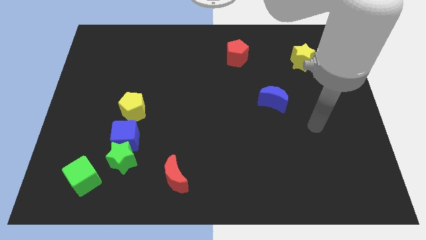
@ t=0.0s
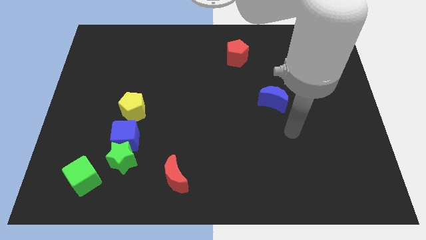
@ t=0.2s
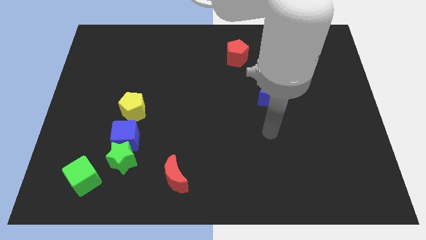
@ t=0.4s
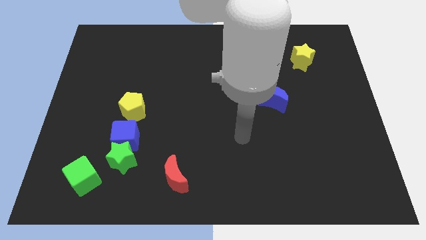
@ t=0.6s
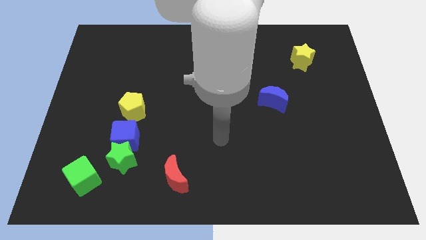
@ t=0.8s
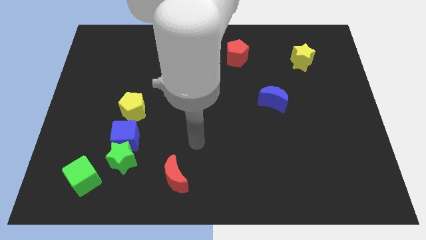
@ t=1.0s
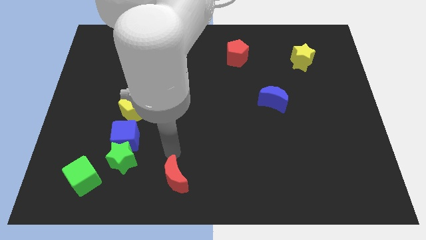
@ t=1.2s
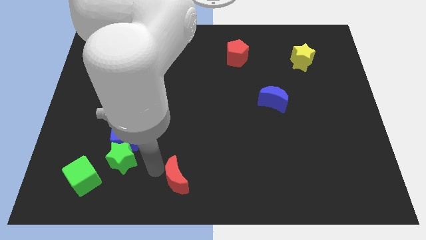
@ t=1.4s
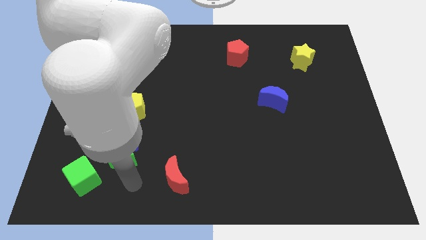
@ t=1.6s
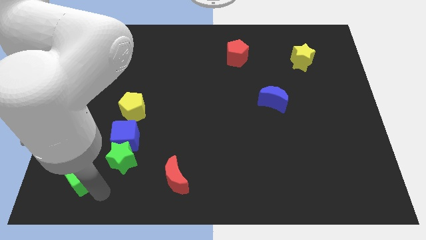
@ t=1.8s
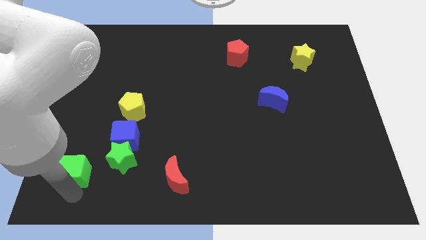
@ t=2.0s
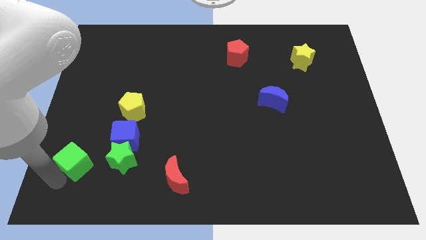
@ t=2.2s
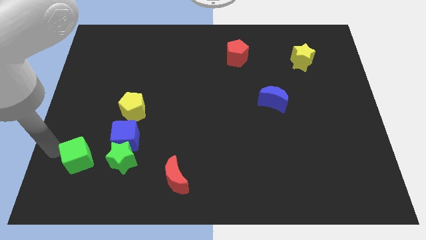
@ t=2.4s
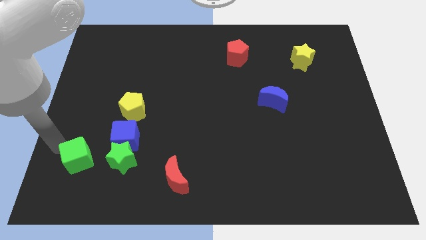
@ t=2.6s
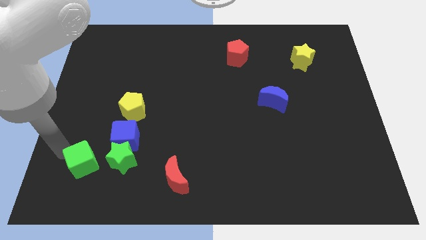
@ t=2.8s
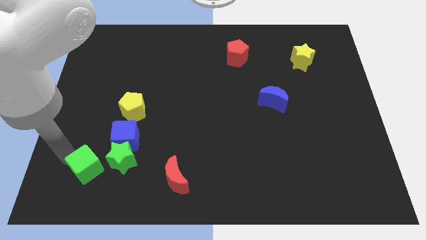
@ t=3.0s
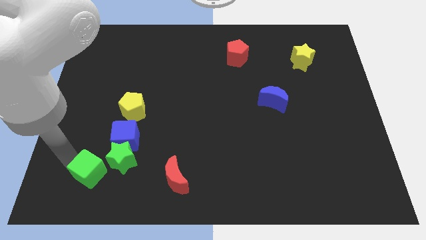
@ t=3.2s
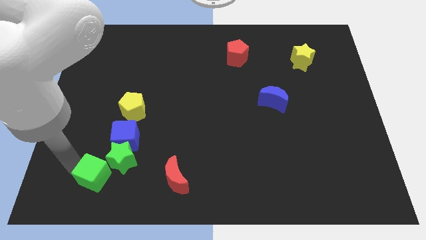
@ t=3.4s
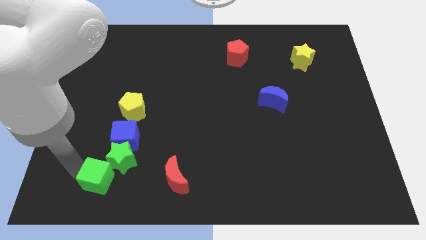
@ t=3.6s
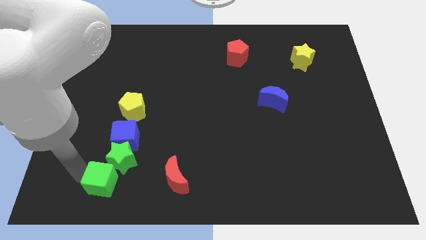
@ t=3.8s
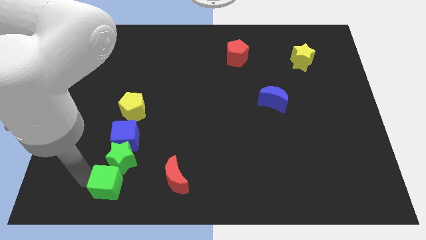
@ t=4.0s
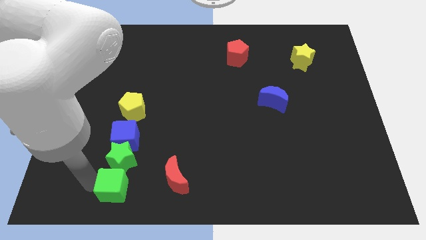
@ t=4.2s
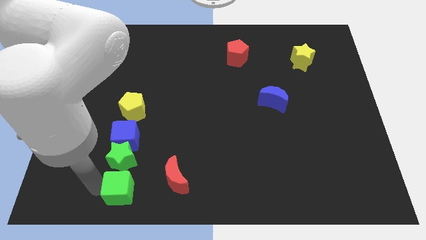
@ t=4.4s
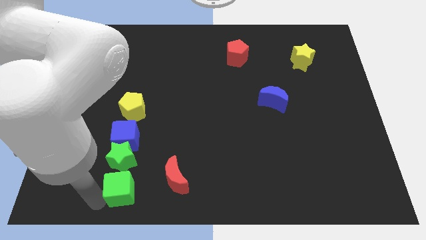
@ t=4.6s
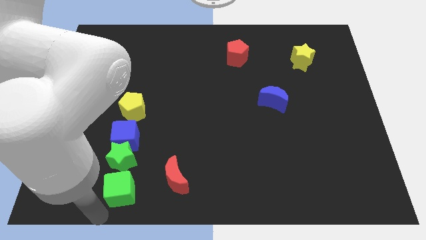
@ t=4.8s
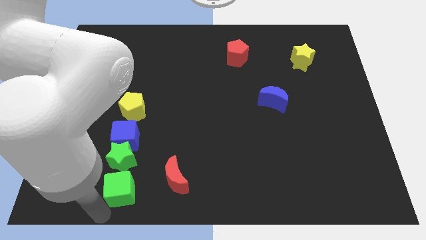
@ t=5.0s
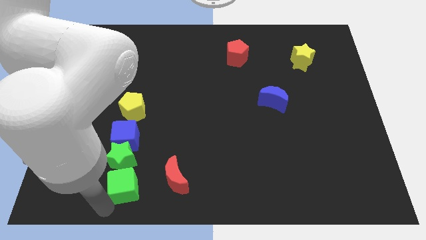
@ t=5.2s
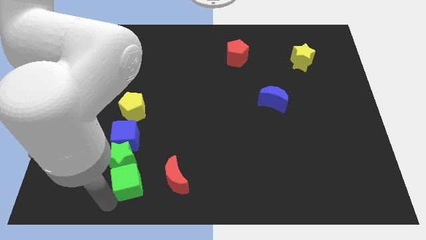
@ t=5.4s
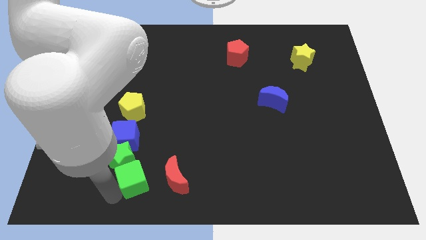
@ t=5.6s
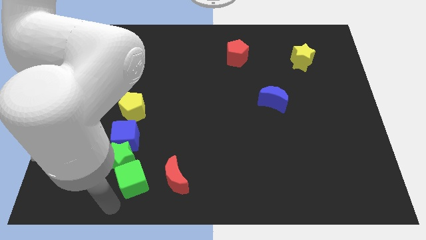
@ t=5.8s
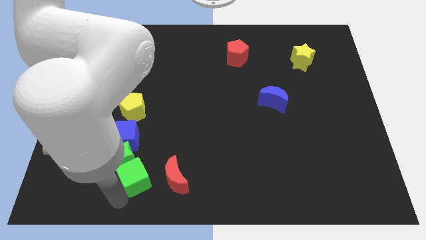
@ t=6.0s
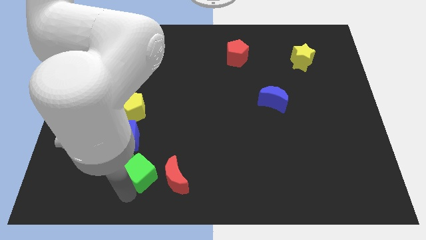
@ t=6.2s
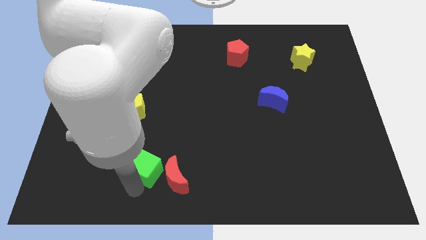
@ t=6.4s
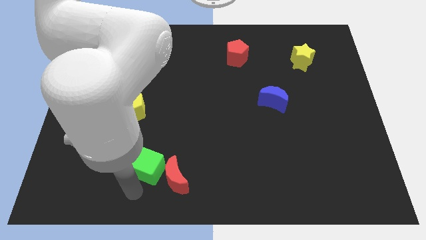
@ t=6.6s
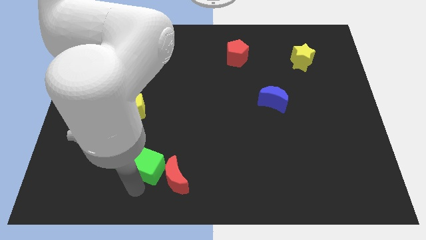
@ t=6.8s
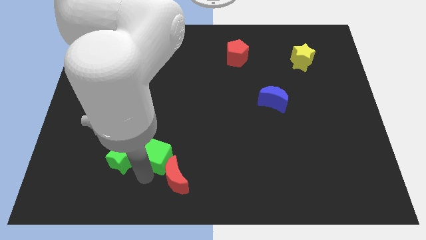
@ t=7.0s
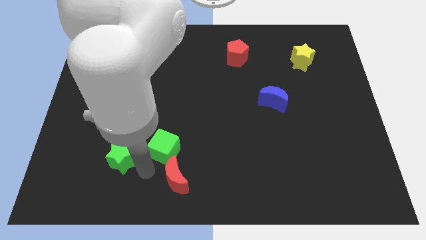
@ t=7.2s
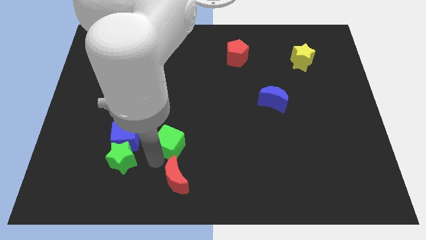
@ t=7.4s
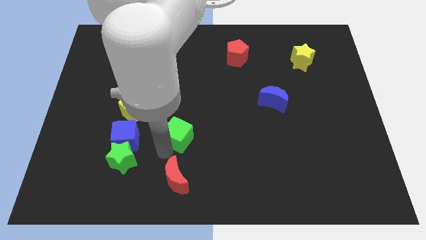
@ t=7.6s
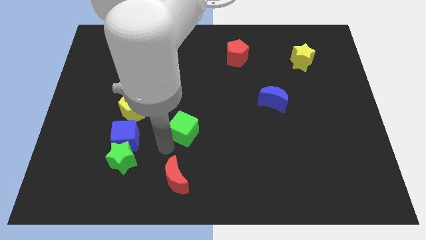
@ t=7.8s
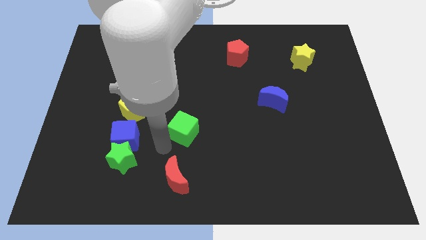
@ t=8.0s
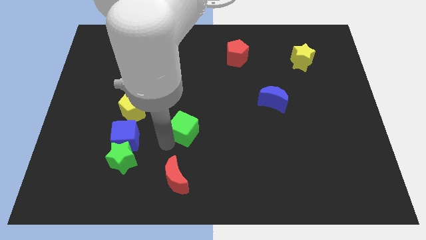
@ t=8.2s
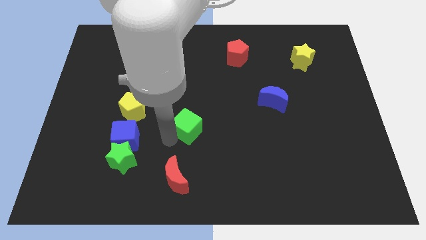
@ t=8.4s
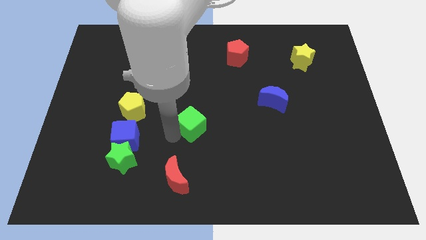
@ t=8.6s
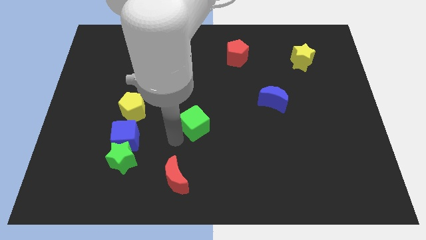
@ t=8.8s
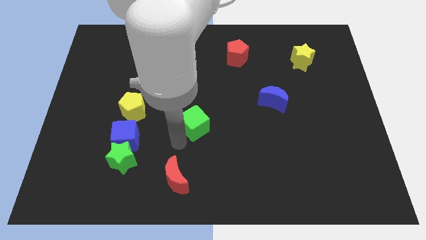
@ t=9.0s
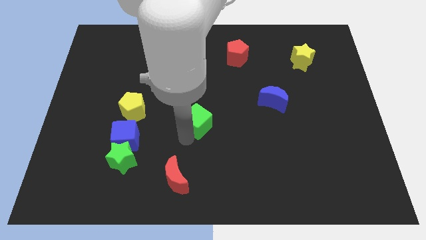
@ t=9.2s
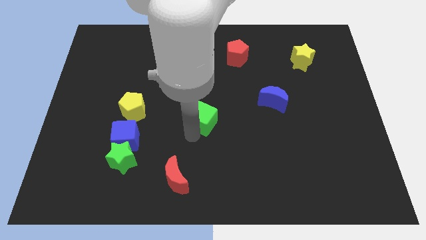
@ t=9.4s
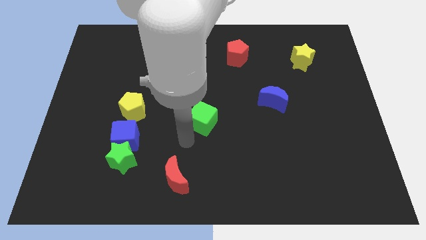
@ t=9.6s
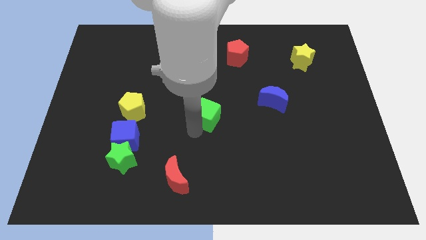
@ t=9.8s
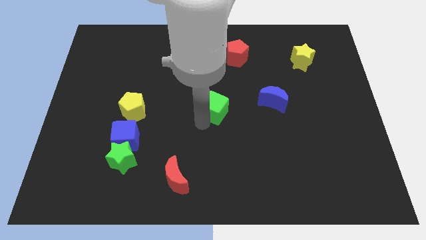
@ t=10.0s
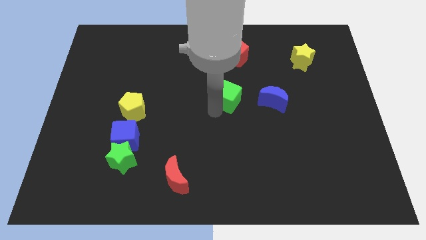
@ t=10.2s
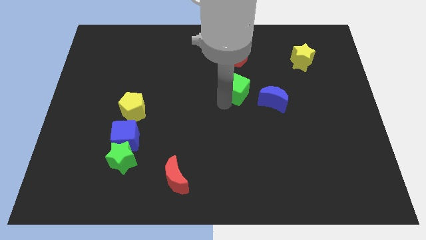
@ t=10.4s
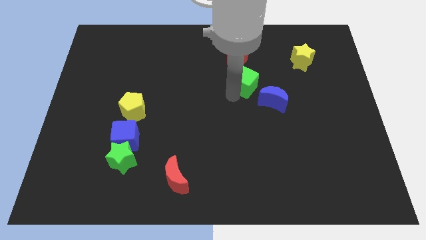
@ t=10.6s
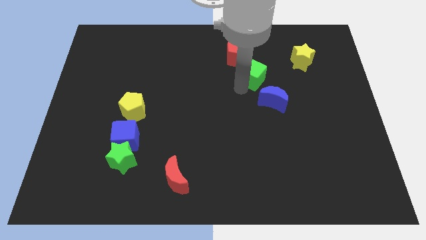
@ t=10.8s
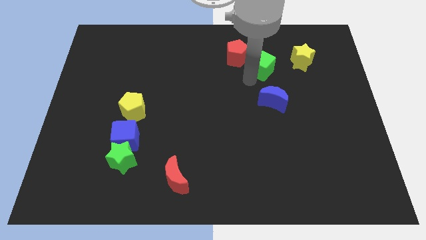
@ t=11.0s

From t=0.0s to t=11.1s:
push the green cube to the right of the red pentagon

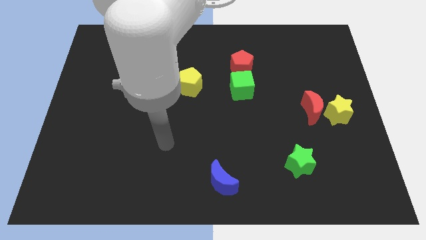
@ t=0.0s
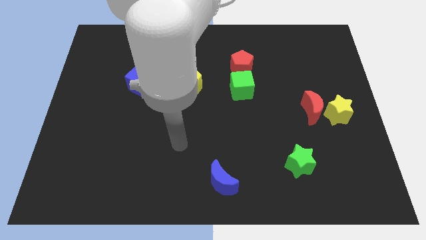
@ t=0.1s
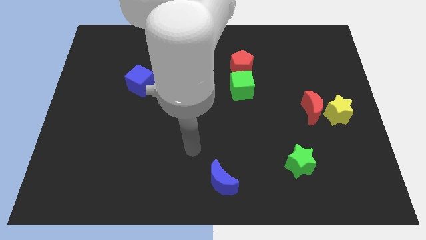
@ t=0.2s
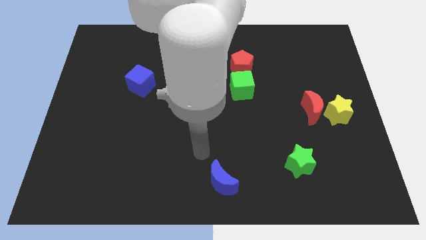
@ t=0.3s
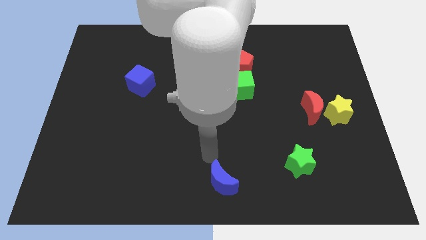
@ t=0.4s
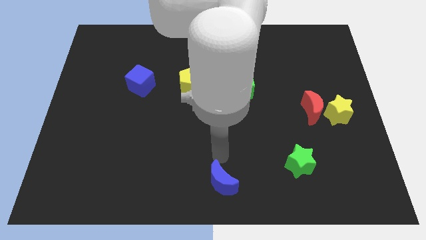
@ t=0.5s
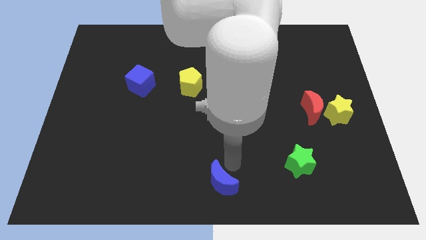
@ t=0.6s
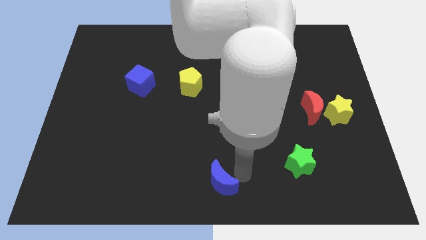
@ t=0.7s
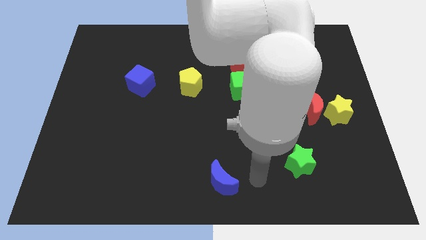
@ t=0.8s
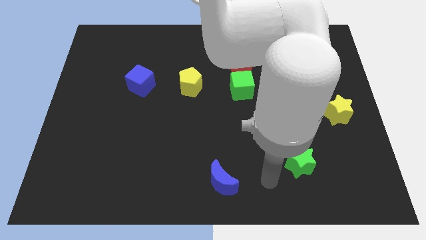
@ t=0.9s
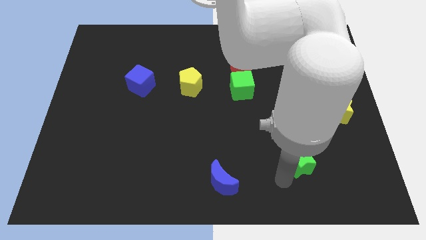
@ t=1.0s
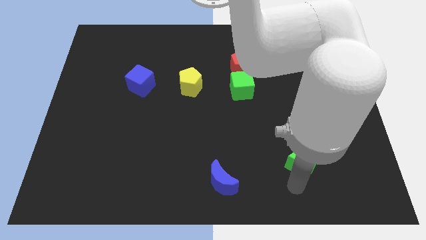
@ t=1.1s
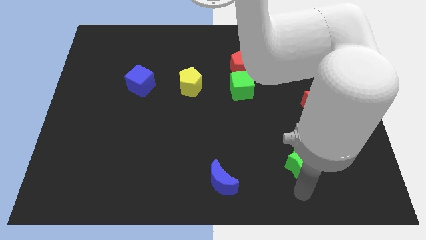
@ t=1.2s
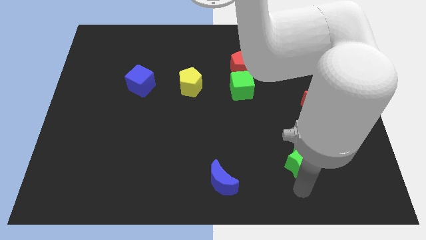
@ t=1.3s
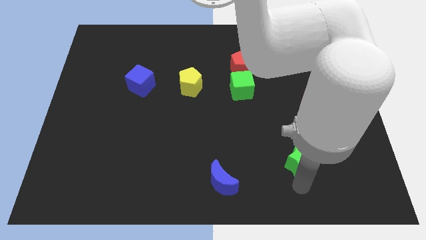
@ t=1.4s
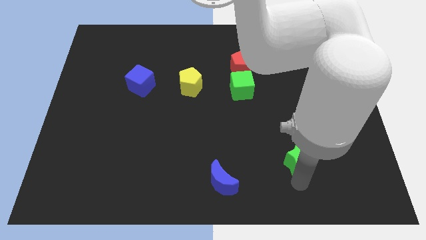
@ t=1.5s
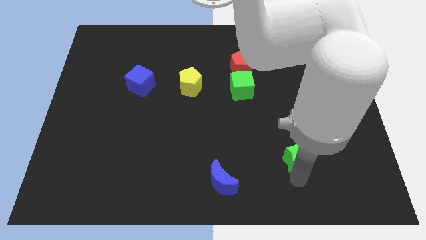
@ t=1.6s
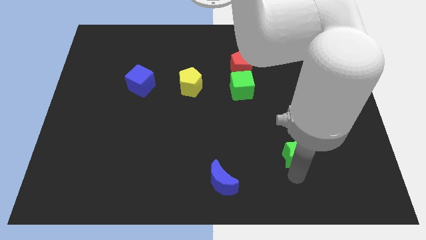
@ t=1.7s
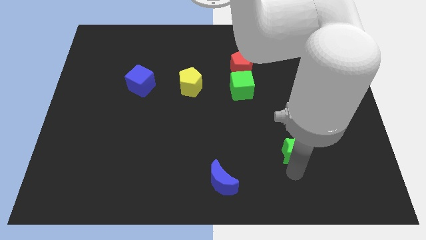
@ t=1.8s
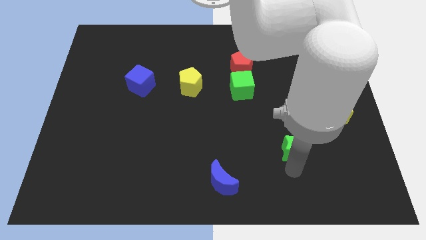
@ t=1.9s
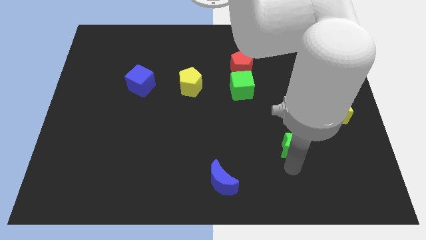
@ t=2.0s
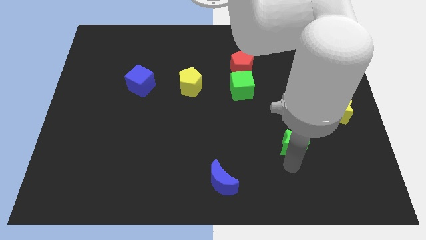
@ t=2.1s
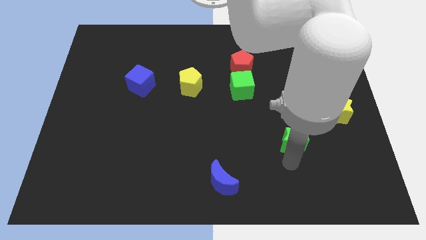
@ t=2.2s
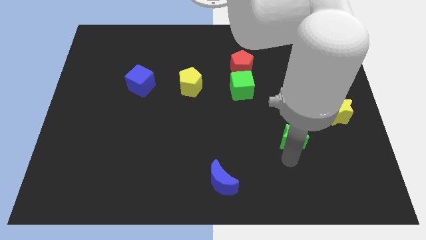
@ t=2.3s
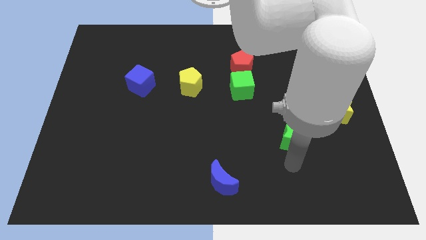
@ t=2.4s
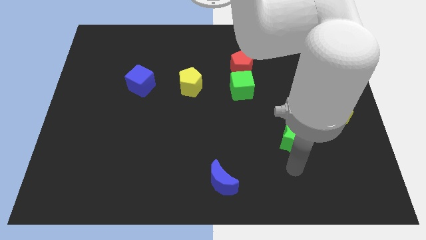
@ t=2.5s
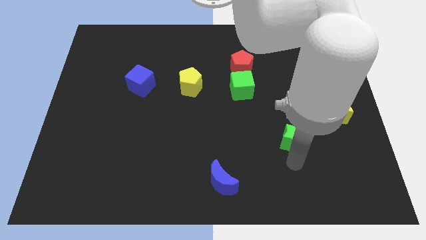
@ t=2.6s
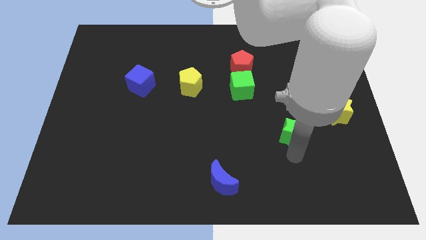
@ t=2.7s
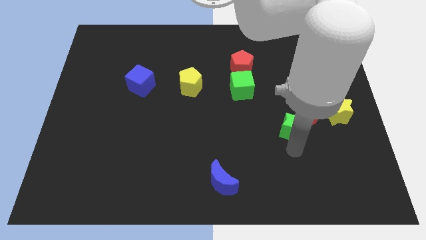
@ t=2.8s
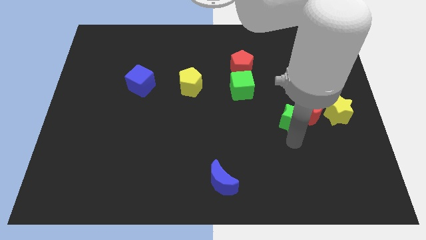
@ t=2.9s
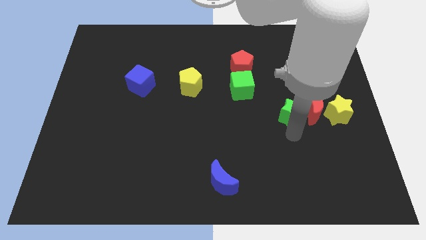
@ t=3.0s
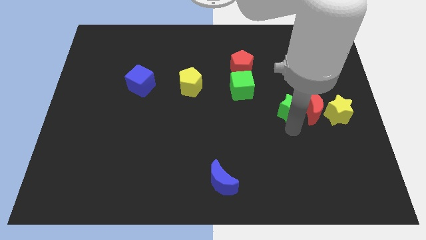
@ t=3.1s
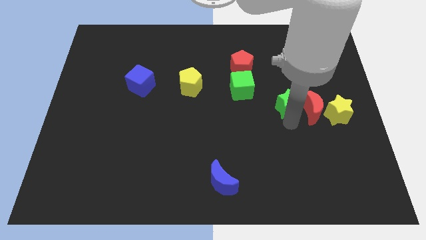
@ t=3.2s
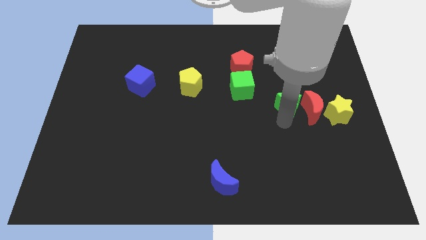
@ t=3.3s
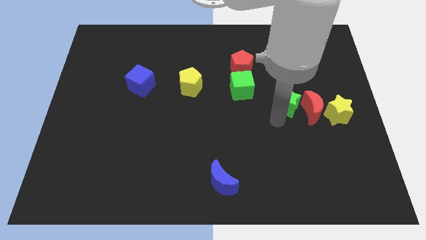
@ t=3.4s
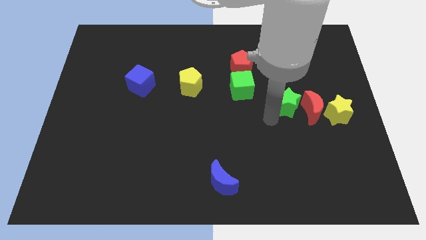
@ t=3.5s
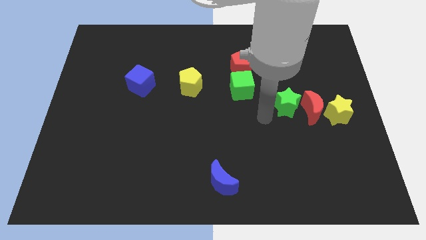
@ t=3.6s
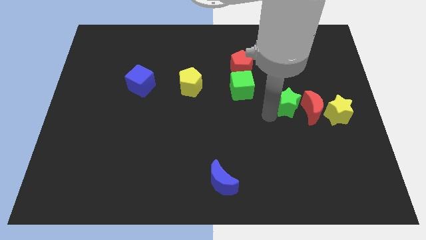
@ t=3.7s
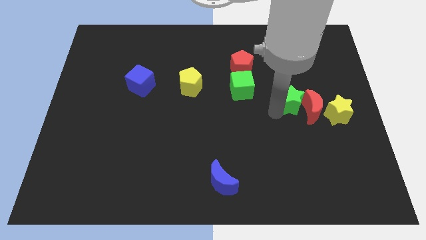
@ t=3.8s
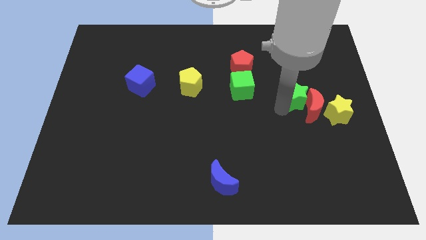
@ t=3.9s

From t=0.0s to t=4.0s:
push the green star to the top left side of the yellow star
